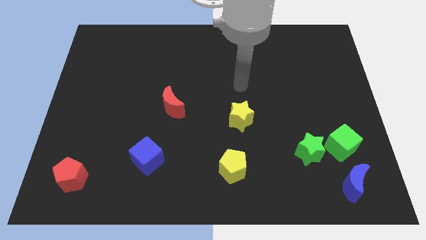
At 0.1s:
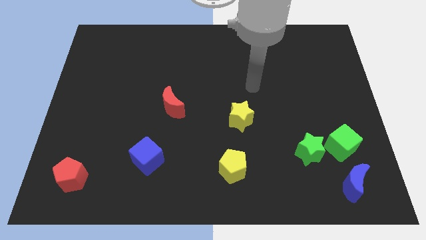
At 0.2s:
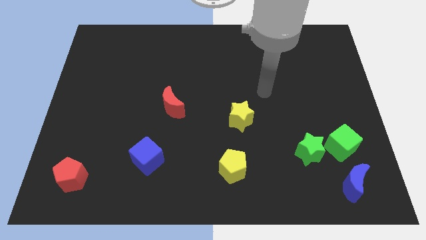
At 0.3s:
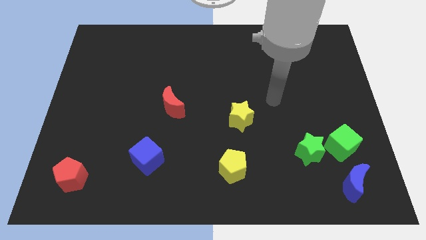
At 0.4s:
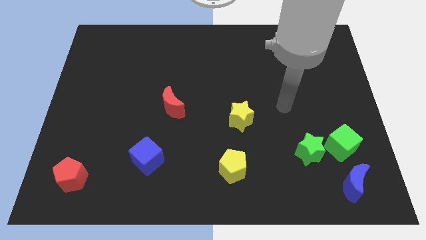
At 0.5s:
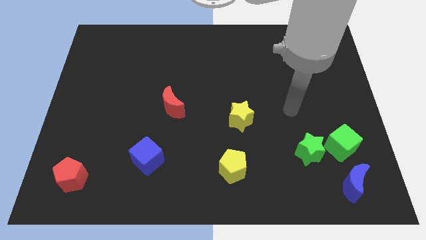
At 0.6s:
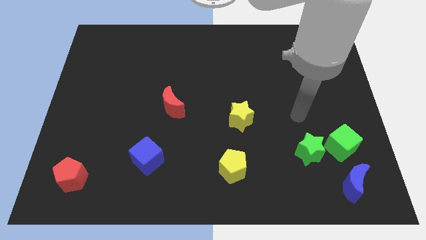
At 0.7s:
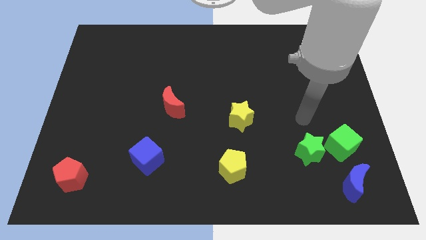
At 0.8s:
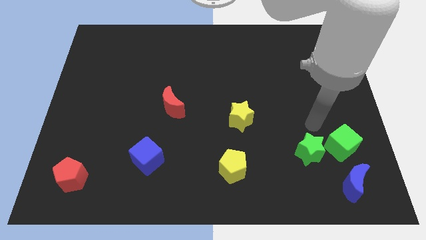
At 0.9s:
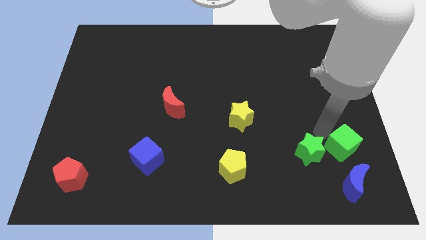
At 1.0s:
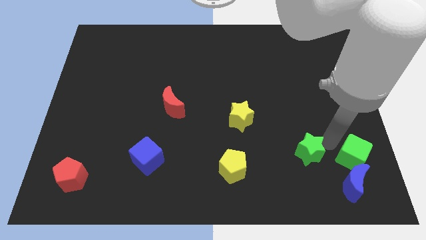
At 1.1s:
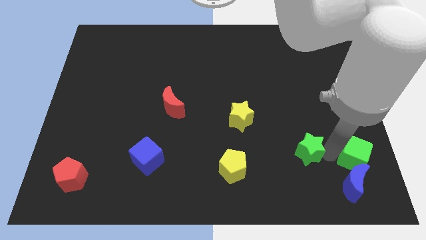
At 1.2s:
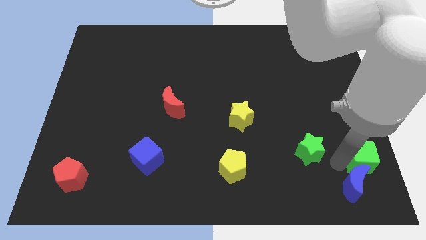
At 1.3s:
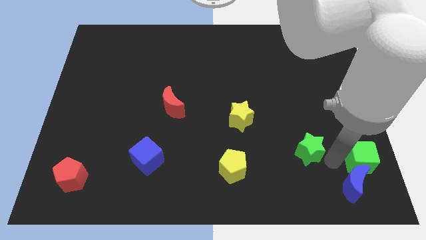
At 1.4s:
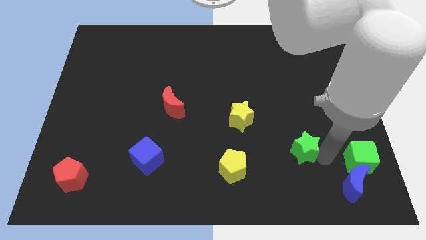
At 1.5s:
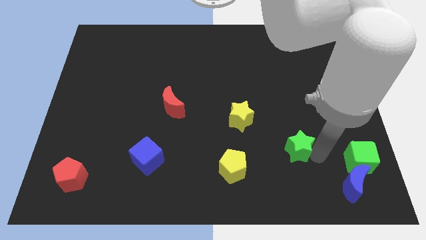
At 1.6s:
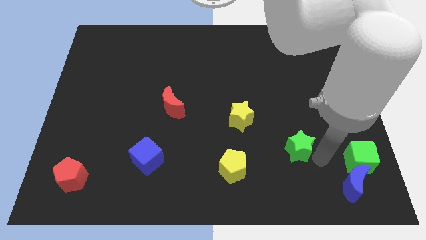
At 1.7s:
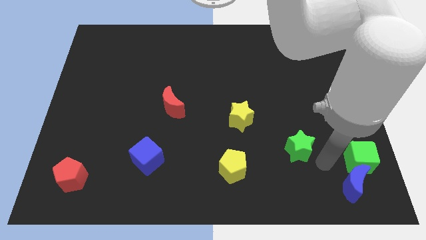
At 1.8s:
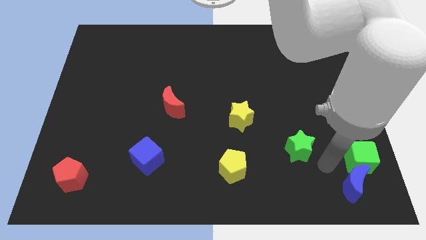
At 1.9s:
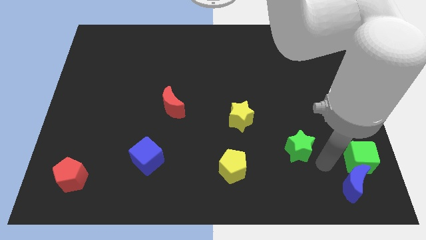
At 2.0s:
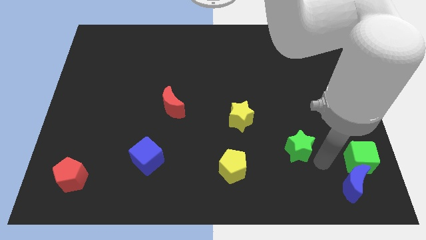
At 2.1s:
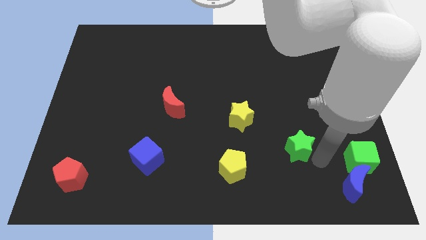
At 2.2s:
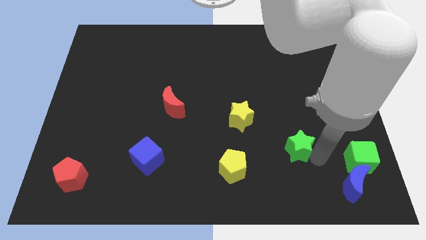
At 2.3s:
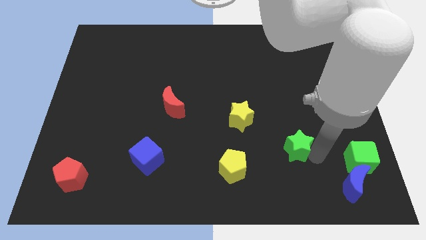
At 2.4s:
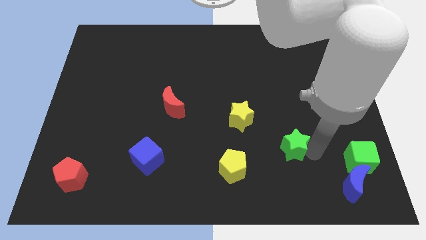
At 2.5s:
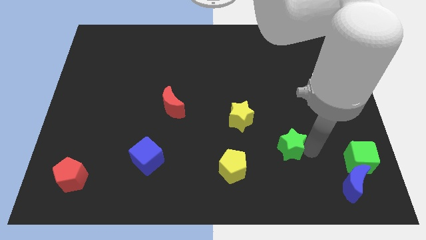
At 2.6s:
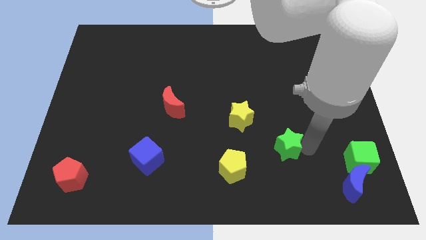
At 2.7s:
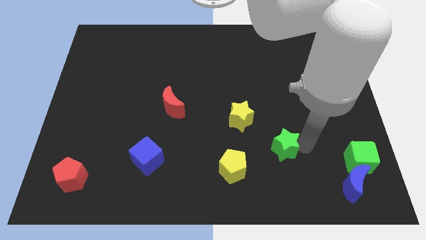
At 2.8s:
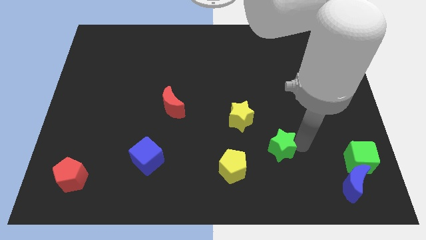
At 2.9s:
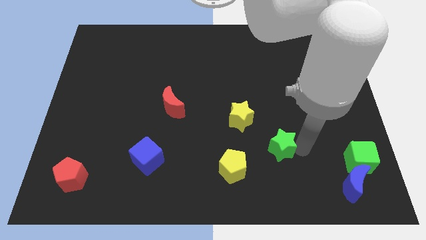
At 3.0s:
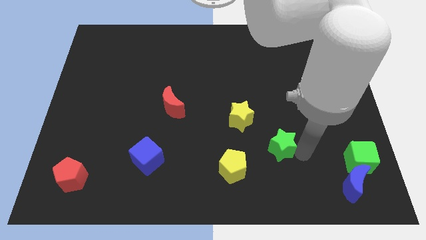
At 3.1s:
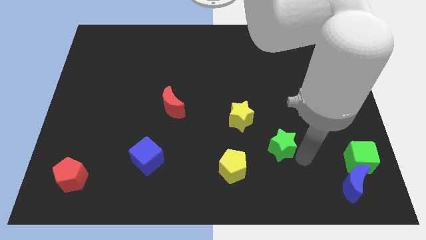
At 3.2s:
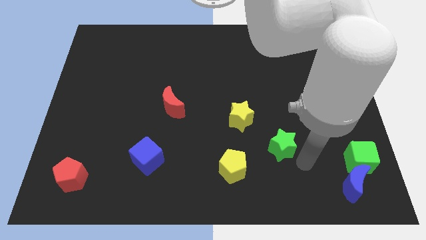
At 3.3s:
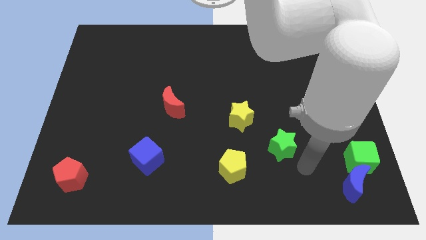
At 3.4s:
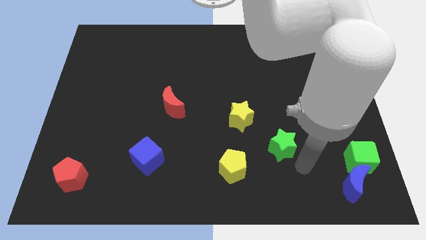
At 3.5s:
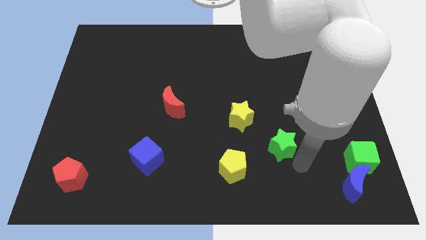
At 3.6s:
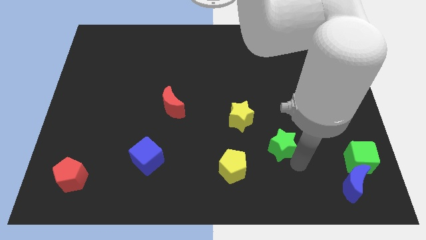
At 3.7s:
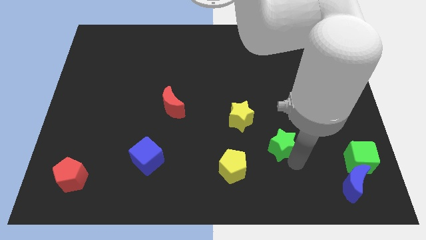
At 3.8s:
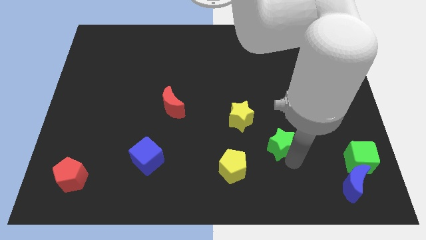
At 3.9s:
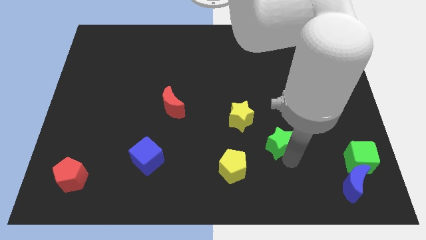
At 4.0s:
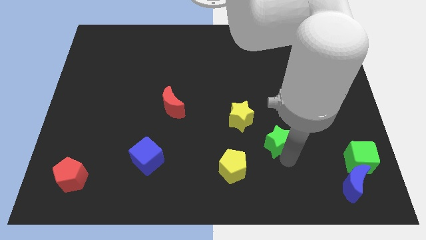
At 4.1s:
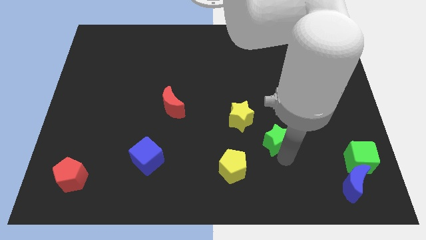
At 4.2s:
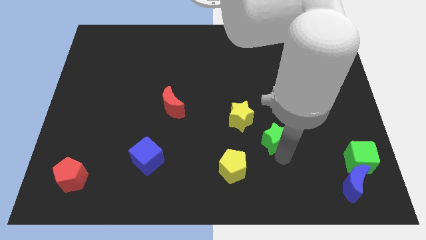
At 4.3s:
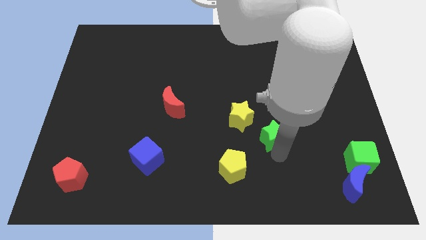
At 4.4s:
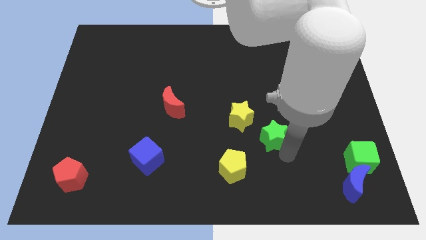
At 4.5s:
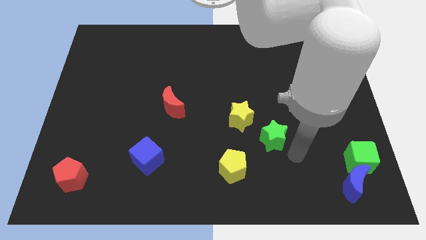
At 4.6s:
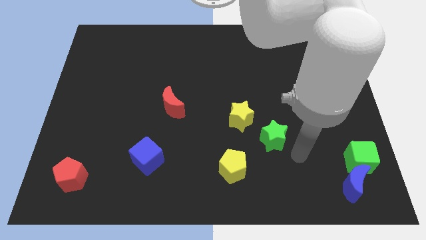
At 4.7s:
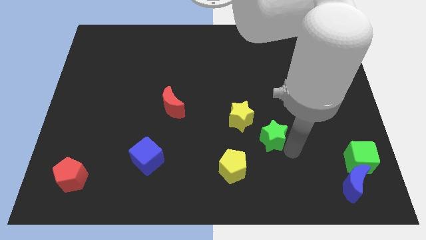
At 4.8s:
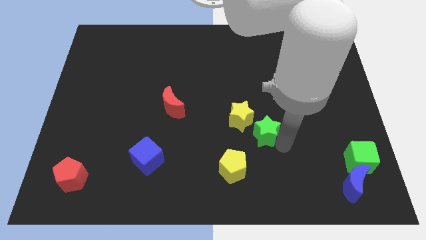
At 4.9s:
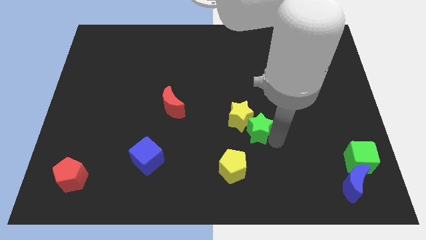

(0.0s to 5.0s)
slide the green star towards the yellow star

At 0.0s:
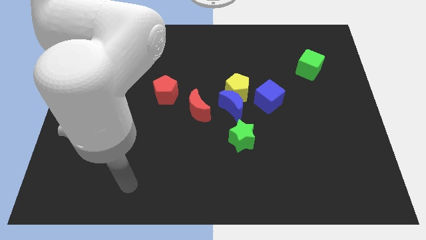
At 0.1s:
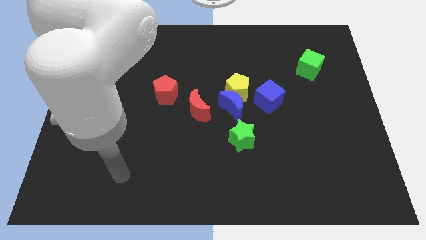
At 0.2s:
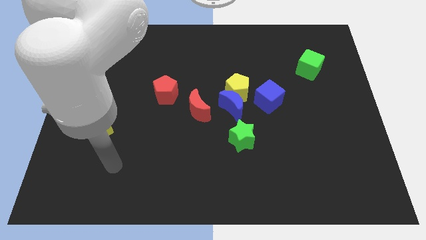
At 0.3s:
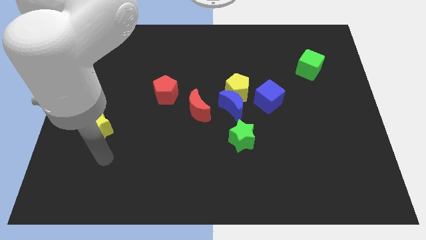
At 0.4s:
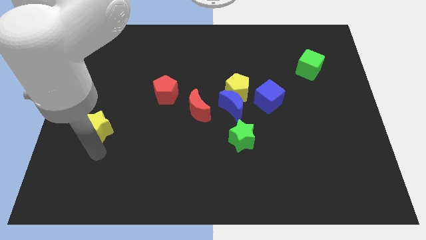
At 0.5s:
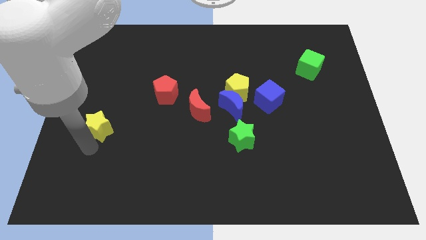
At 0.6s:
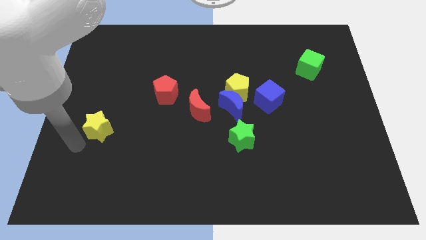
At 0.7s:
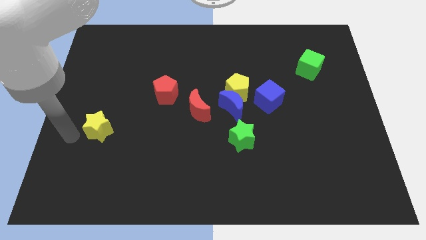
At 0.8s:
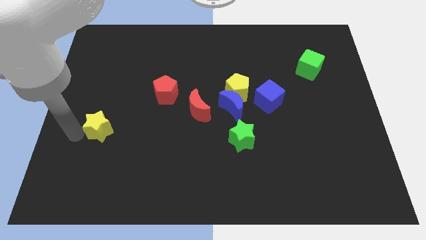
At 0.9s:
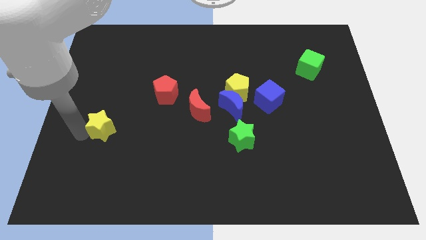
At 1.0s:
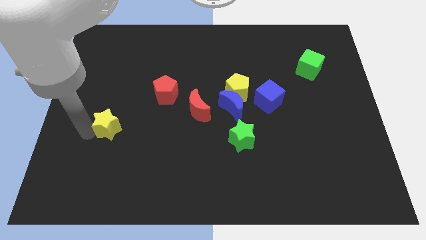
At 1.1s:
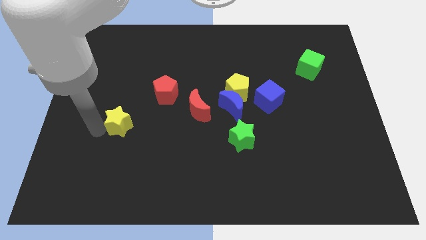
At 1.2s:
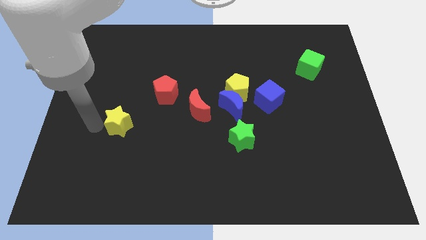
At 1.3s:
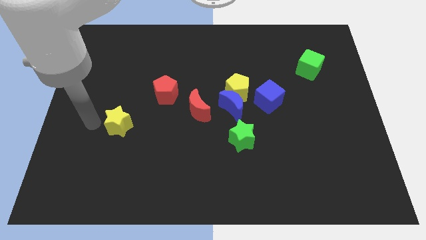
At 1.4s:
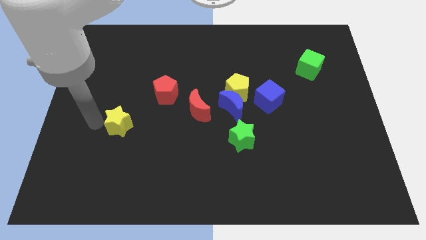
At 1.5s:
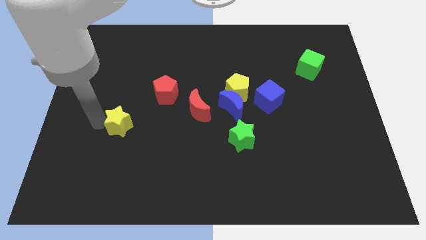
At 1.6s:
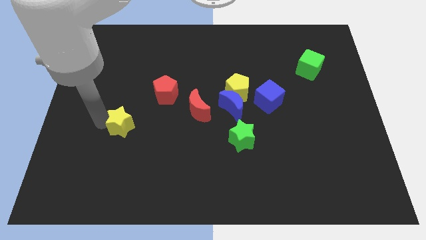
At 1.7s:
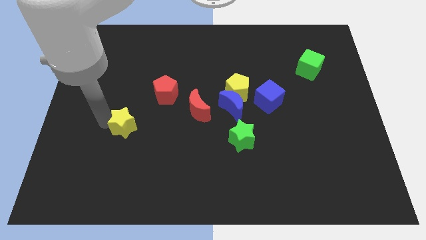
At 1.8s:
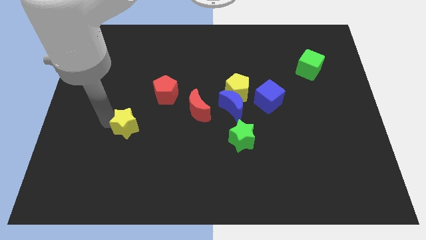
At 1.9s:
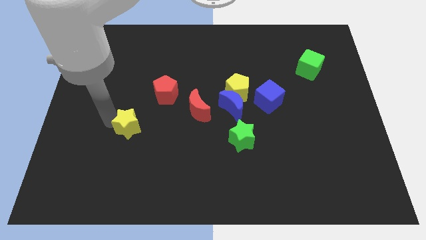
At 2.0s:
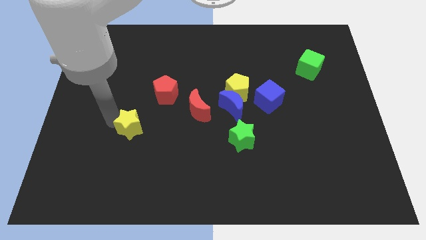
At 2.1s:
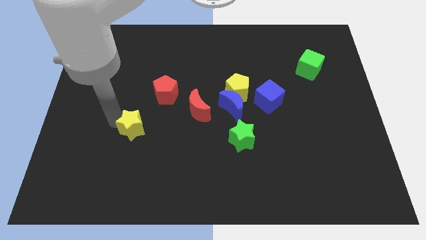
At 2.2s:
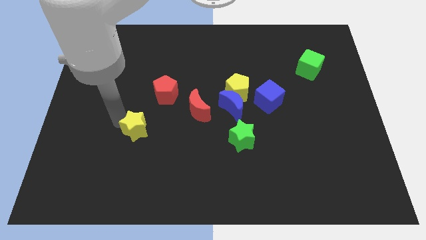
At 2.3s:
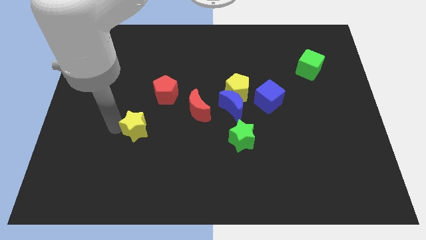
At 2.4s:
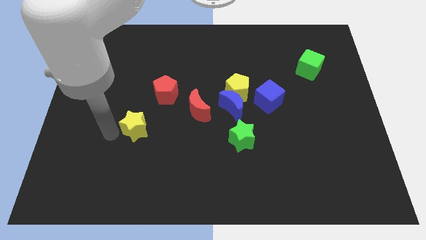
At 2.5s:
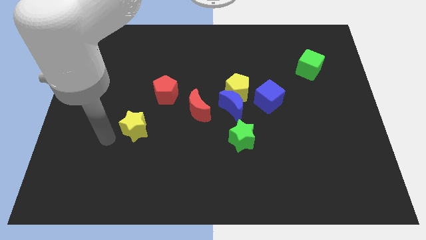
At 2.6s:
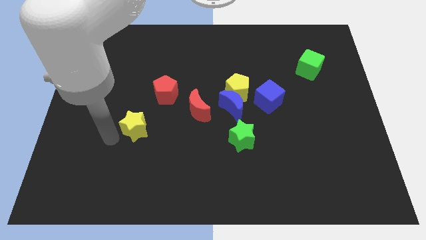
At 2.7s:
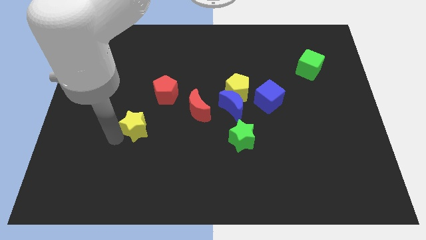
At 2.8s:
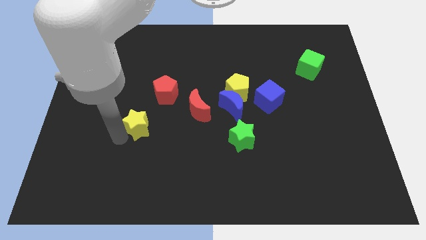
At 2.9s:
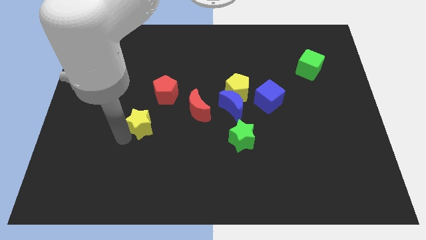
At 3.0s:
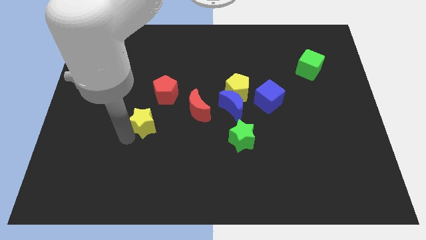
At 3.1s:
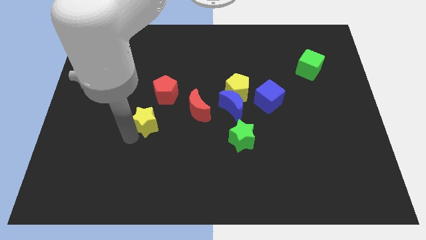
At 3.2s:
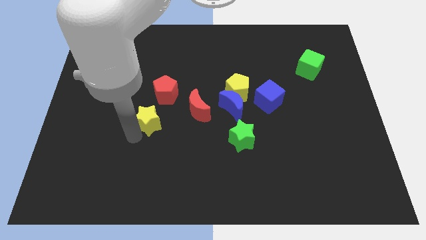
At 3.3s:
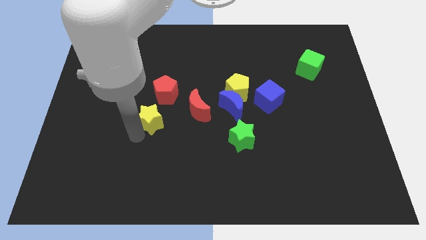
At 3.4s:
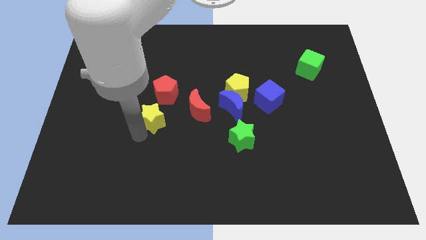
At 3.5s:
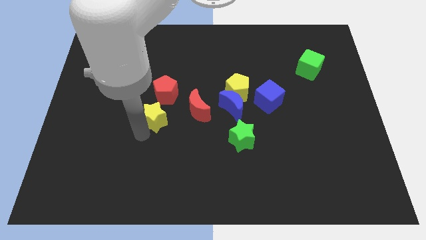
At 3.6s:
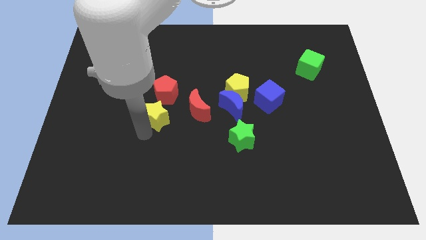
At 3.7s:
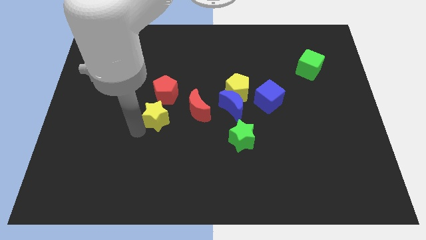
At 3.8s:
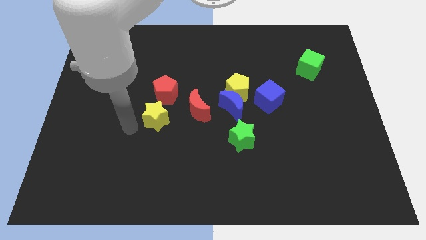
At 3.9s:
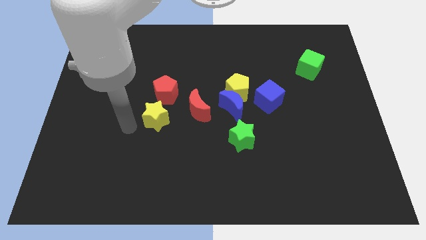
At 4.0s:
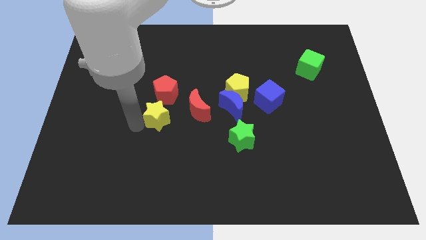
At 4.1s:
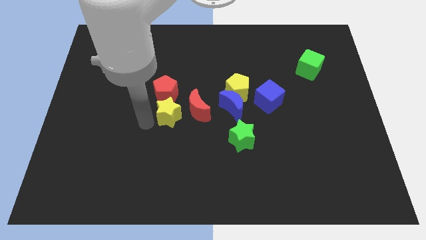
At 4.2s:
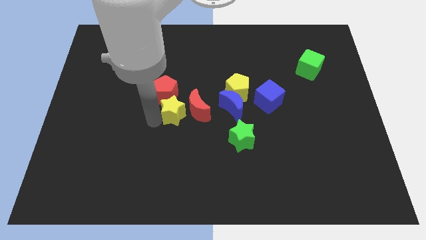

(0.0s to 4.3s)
push the yellow star close to the red moon
